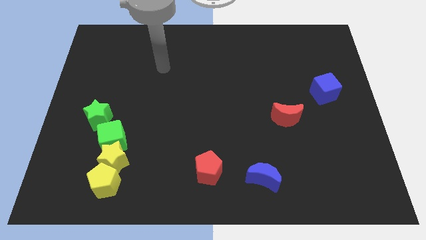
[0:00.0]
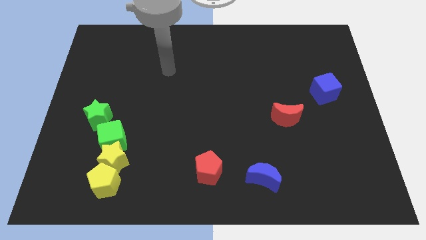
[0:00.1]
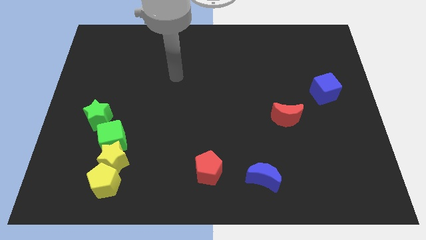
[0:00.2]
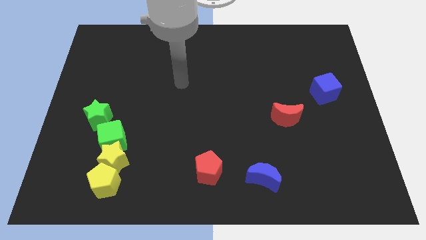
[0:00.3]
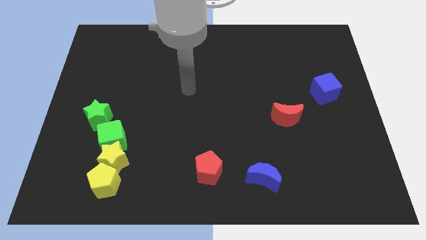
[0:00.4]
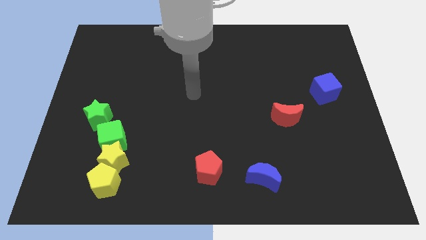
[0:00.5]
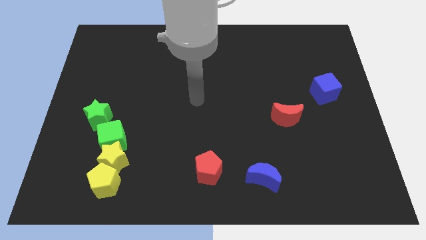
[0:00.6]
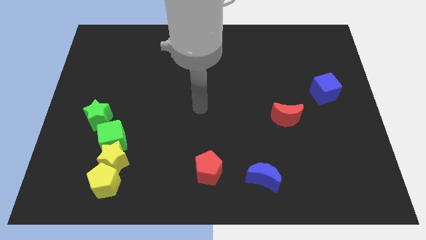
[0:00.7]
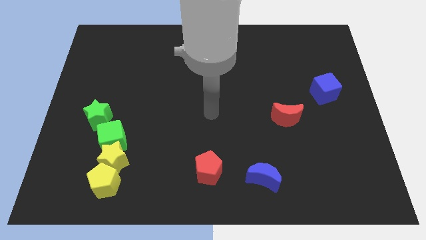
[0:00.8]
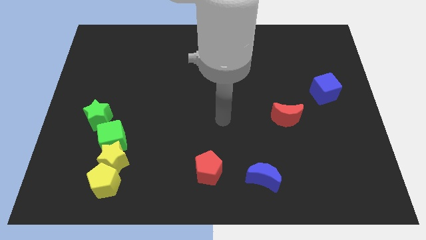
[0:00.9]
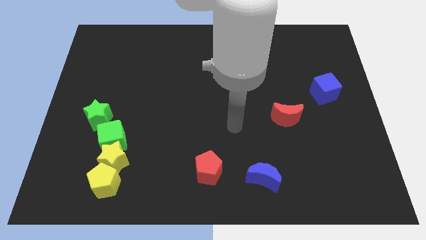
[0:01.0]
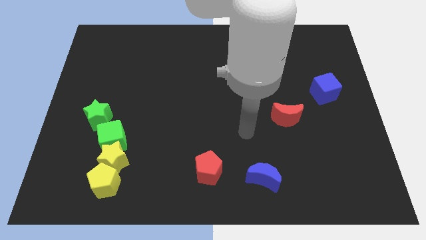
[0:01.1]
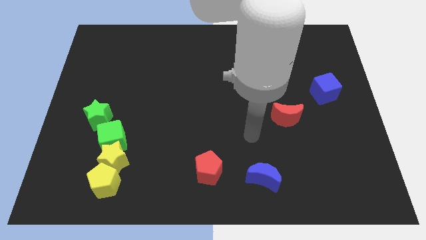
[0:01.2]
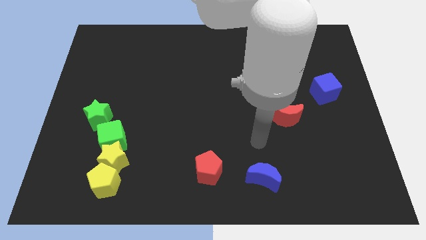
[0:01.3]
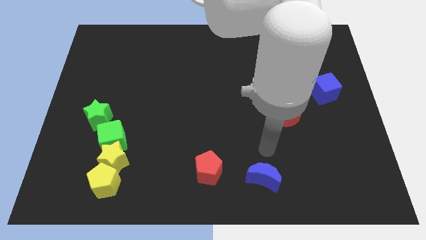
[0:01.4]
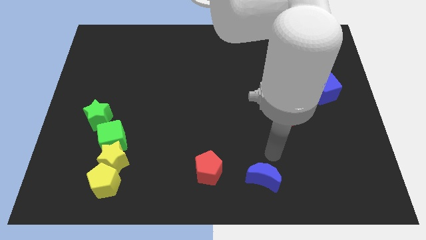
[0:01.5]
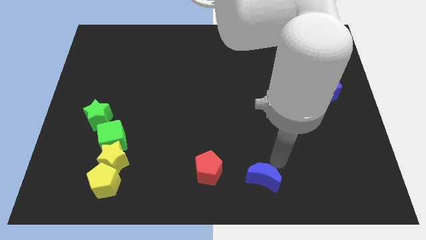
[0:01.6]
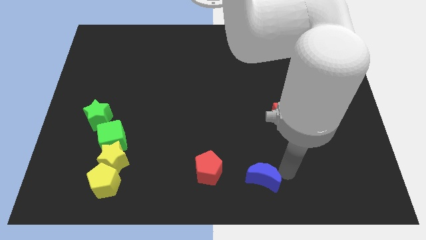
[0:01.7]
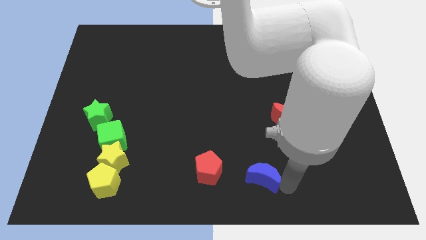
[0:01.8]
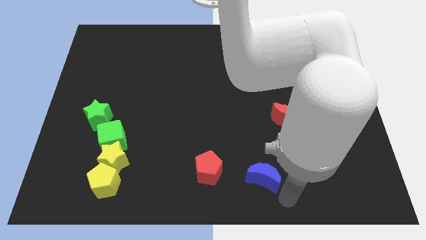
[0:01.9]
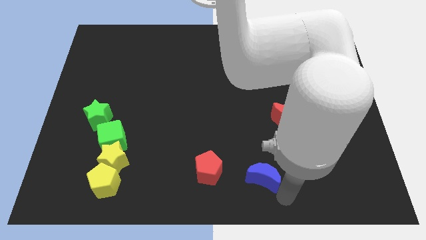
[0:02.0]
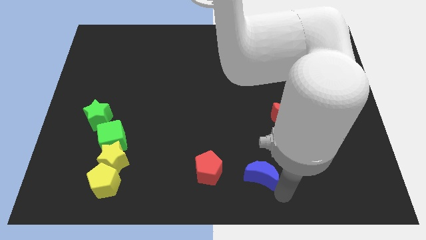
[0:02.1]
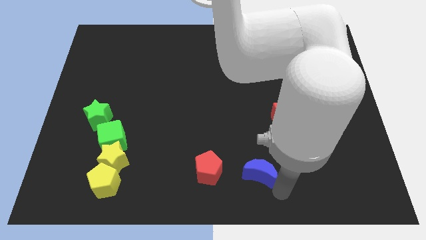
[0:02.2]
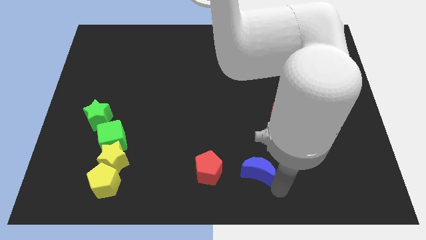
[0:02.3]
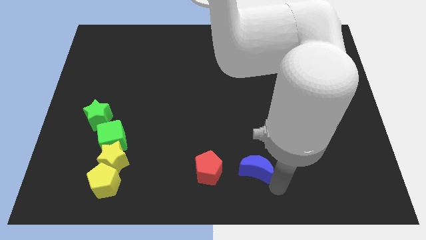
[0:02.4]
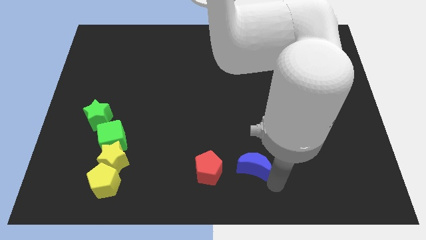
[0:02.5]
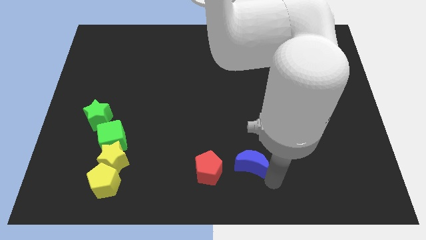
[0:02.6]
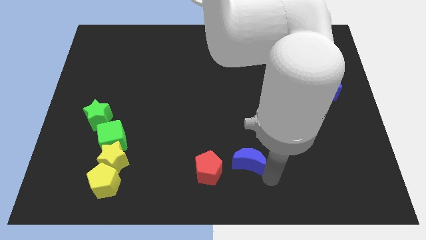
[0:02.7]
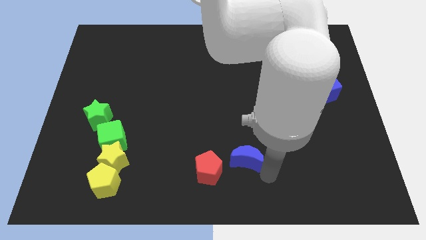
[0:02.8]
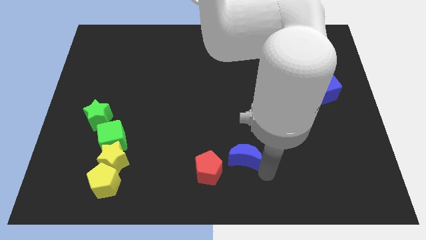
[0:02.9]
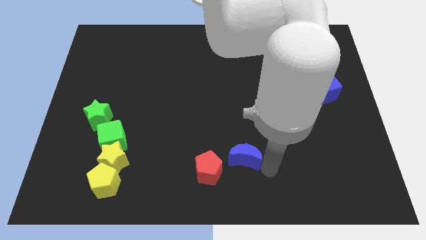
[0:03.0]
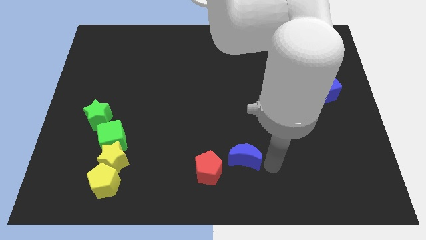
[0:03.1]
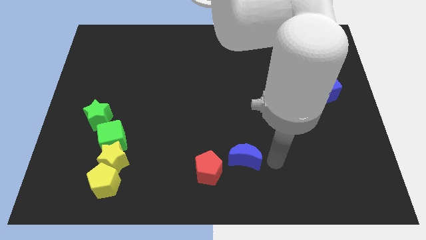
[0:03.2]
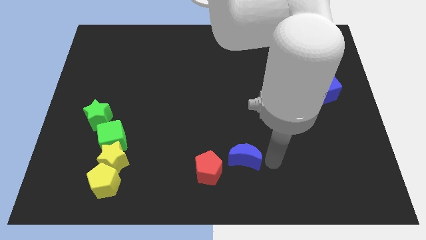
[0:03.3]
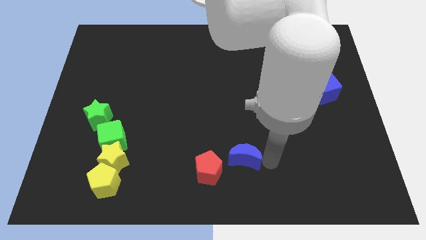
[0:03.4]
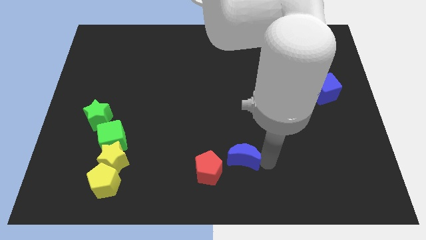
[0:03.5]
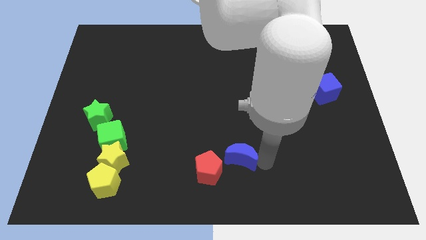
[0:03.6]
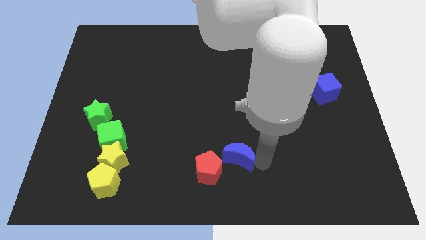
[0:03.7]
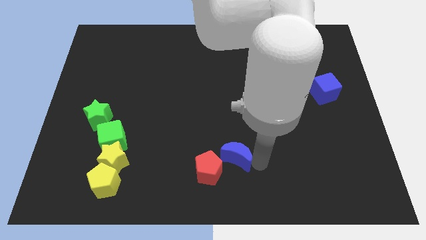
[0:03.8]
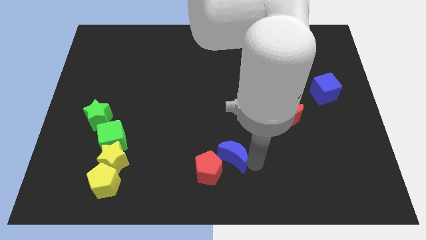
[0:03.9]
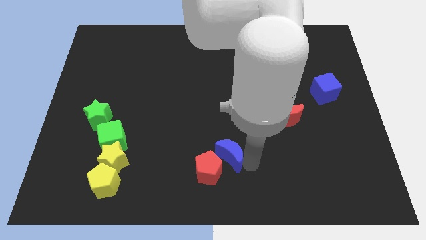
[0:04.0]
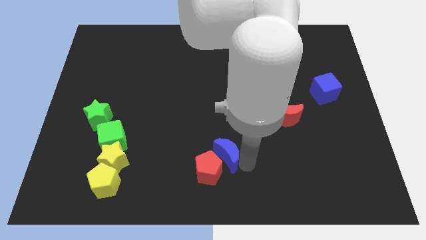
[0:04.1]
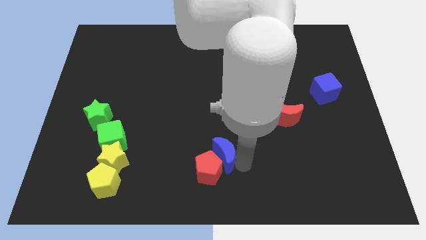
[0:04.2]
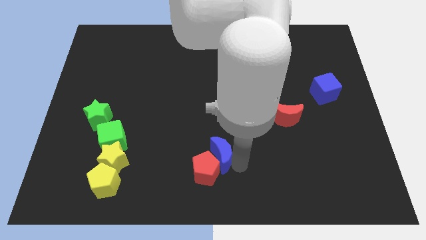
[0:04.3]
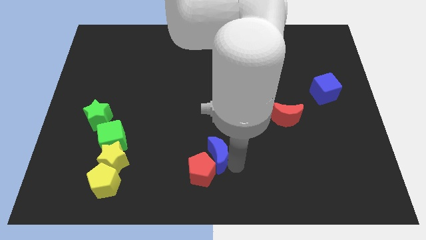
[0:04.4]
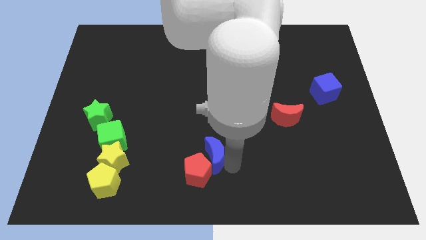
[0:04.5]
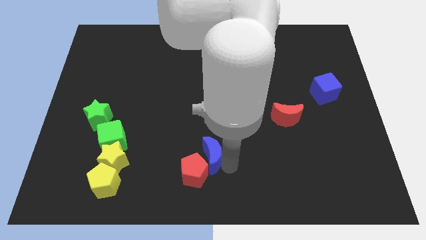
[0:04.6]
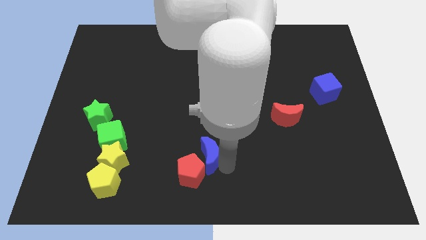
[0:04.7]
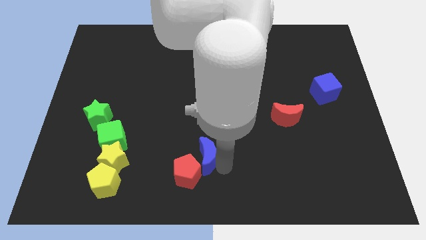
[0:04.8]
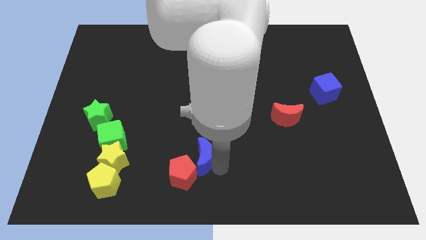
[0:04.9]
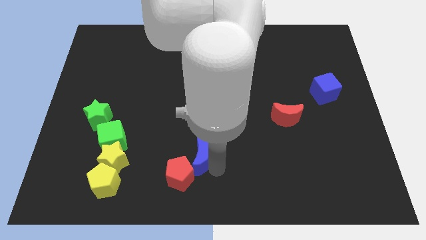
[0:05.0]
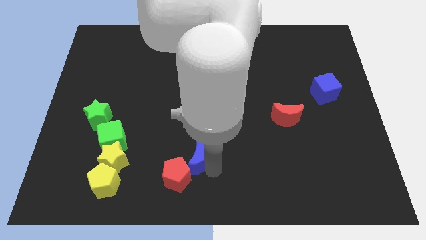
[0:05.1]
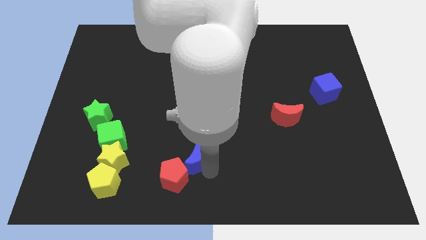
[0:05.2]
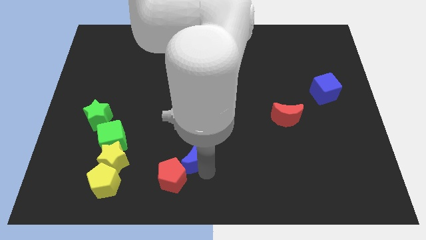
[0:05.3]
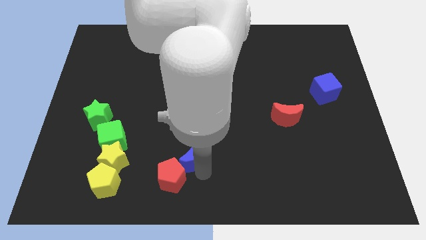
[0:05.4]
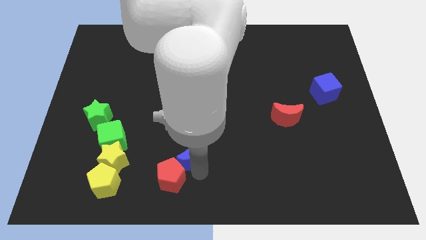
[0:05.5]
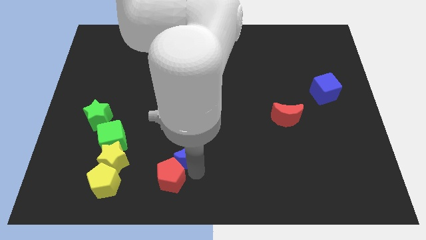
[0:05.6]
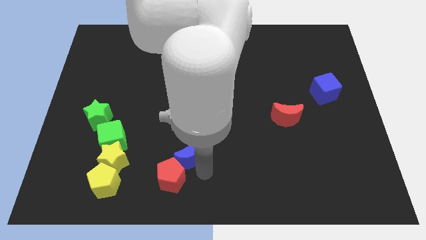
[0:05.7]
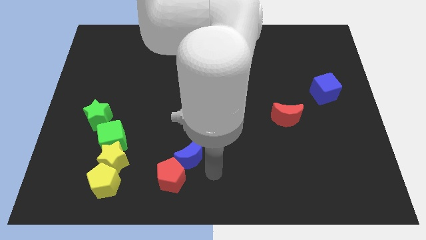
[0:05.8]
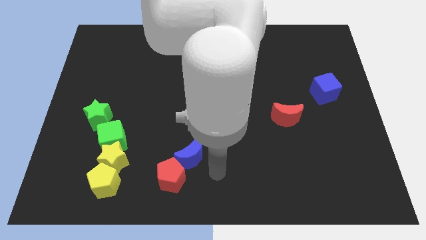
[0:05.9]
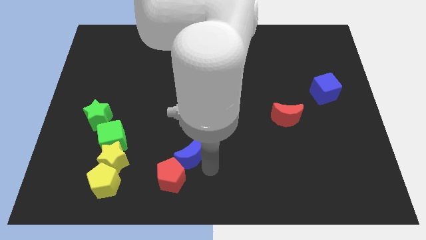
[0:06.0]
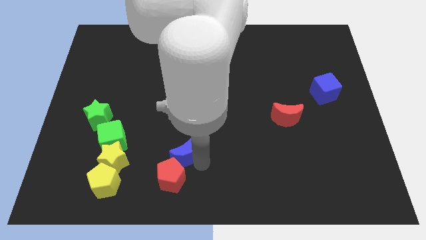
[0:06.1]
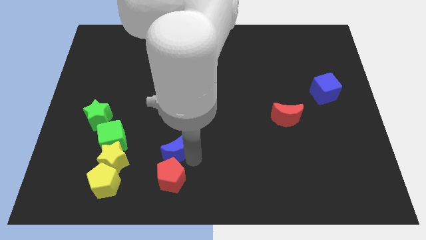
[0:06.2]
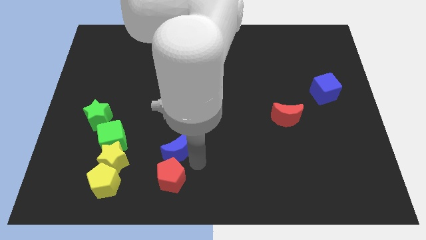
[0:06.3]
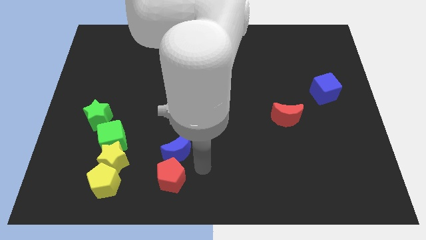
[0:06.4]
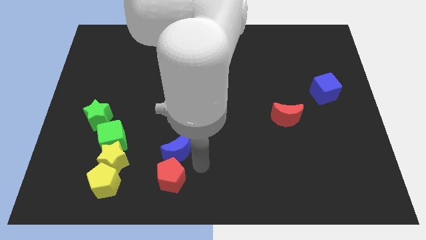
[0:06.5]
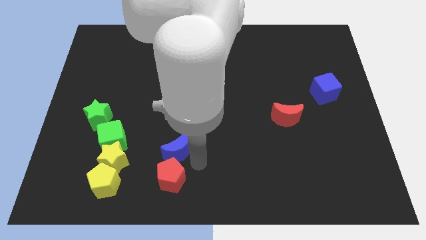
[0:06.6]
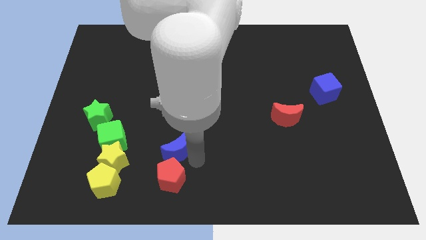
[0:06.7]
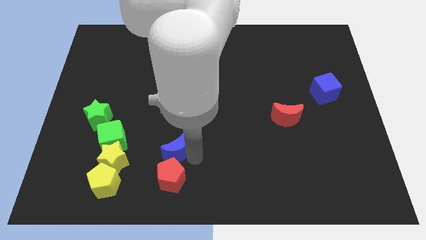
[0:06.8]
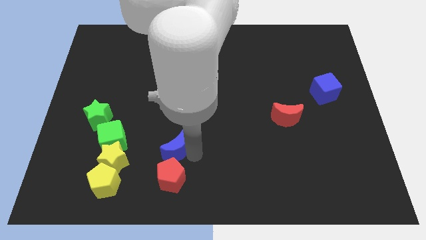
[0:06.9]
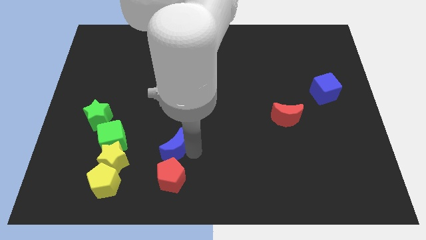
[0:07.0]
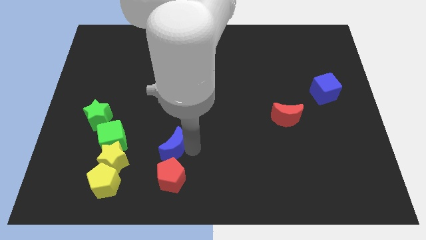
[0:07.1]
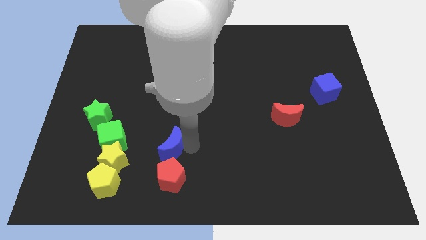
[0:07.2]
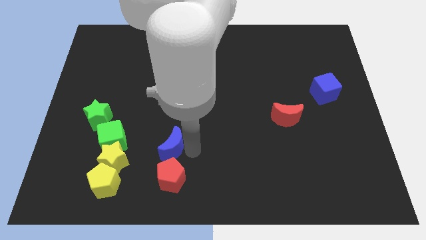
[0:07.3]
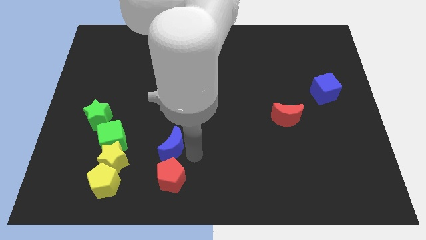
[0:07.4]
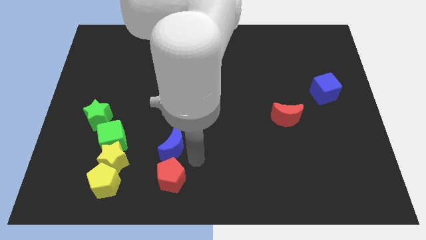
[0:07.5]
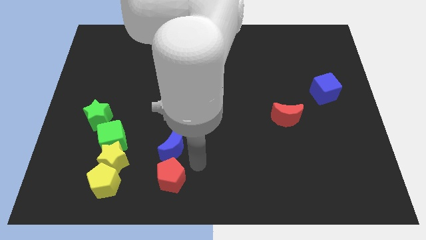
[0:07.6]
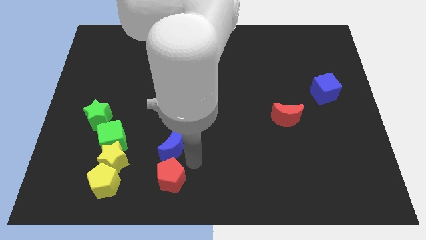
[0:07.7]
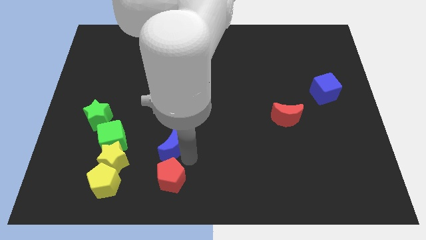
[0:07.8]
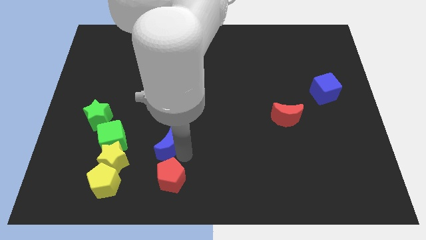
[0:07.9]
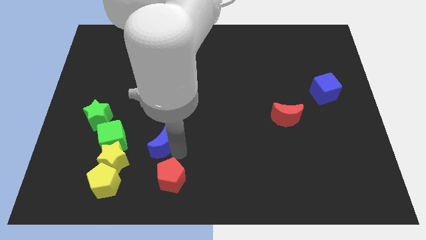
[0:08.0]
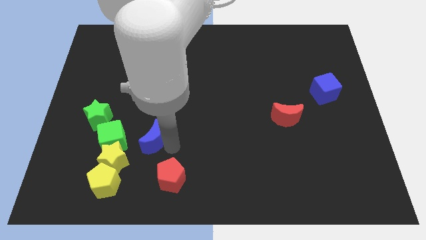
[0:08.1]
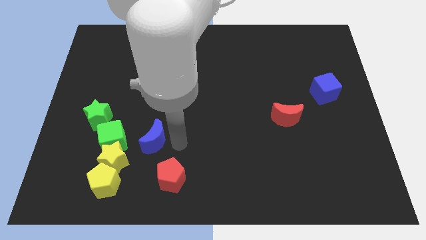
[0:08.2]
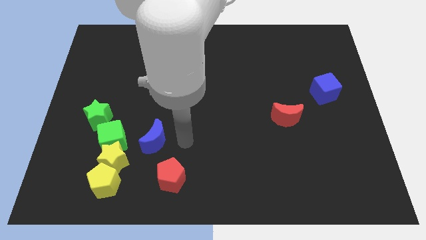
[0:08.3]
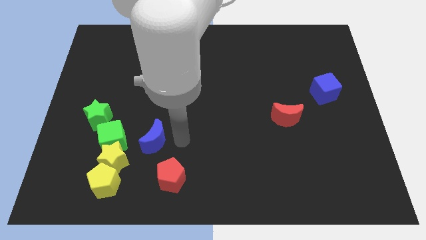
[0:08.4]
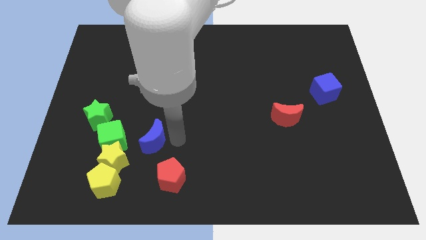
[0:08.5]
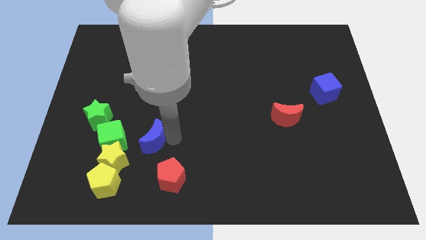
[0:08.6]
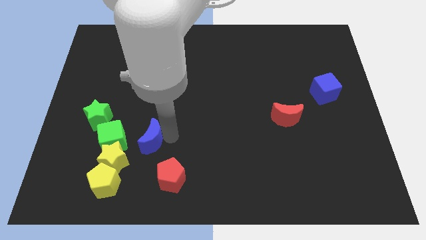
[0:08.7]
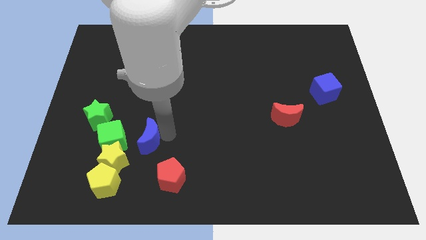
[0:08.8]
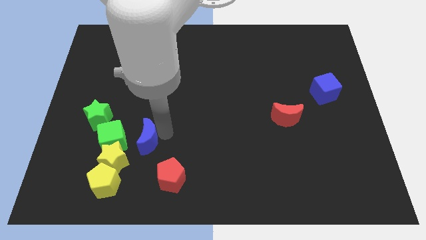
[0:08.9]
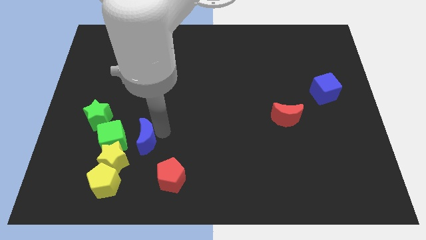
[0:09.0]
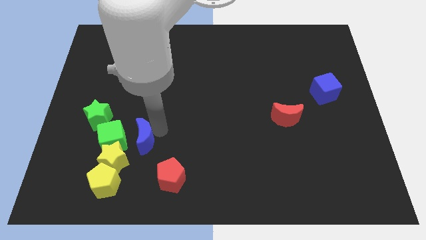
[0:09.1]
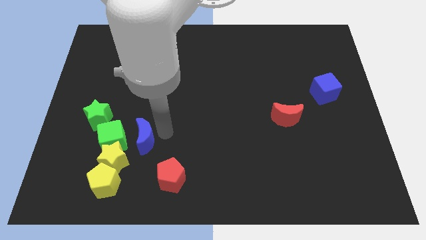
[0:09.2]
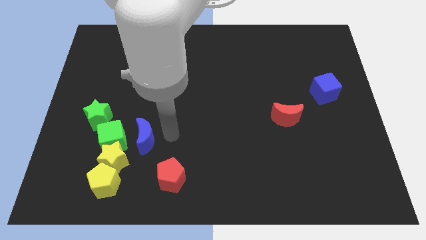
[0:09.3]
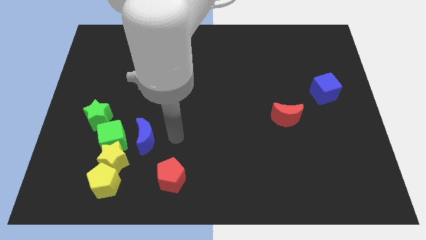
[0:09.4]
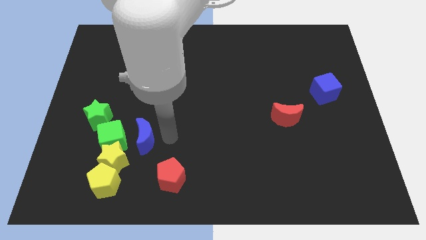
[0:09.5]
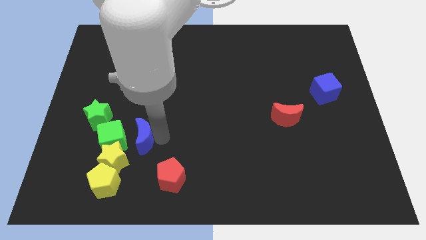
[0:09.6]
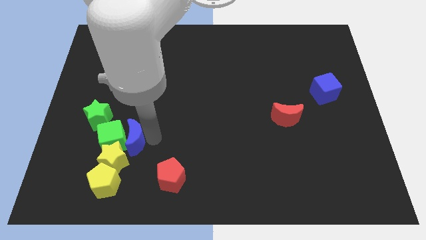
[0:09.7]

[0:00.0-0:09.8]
push the blue moon next to the green cube
